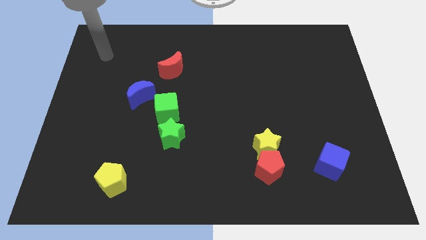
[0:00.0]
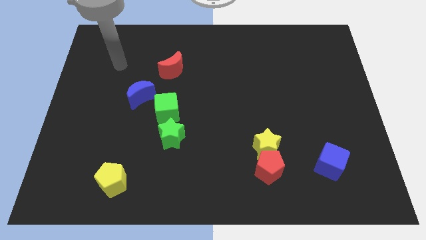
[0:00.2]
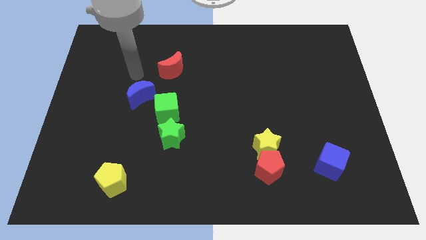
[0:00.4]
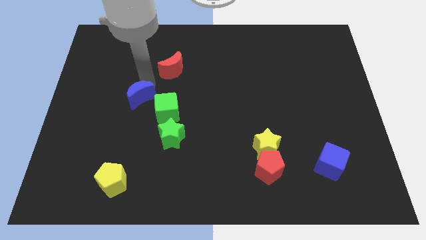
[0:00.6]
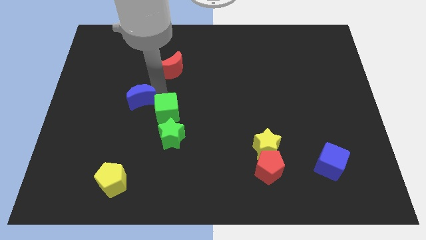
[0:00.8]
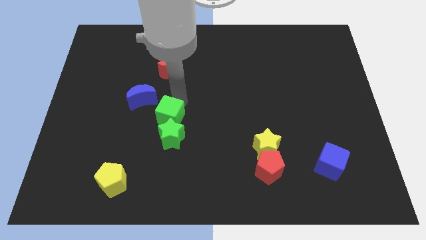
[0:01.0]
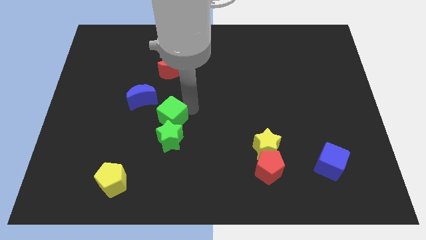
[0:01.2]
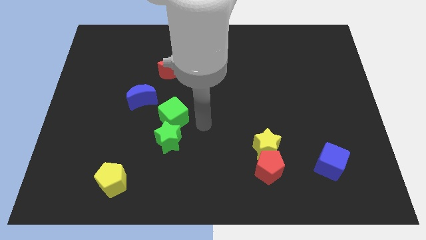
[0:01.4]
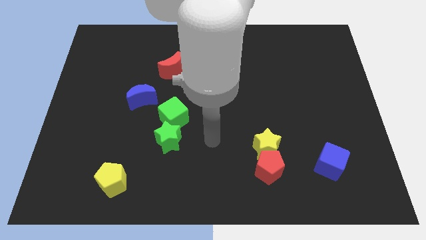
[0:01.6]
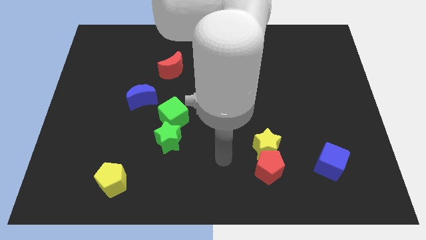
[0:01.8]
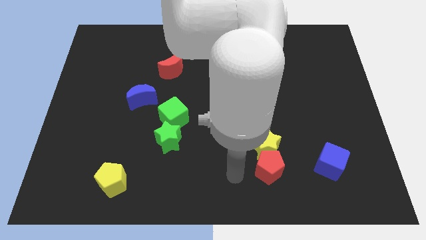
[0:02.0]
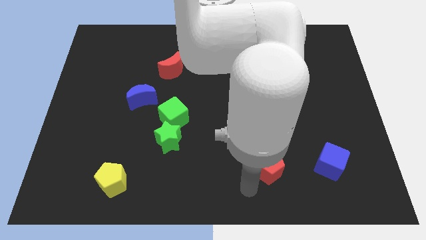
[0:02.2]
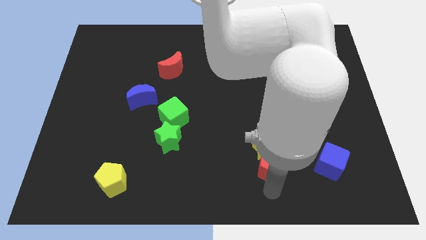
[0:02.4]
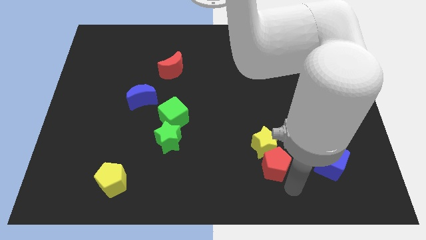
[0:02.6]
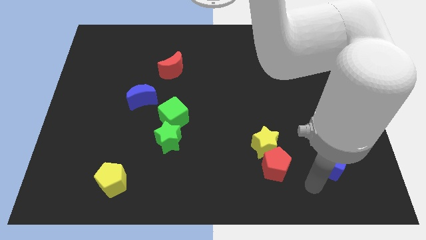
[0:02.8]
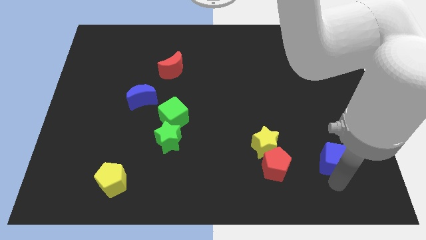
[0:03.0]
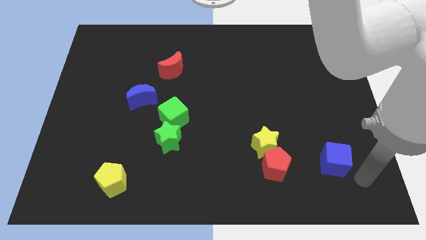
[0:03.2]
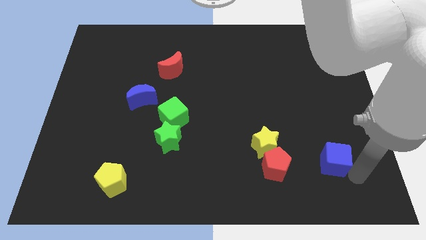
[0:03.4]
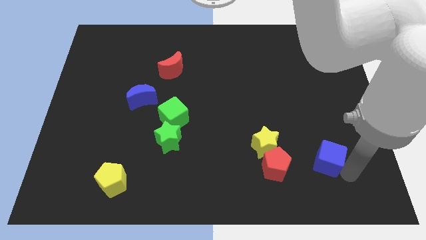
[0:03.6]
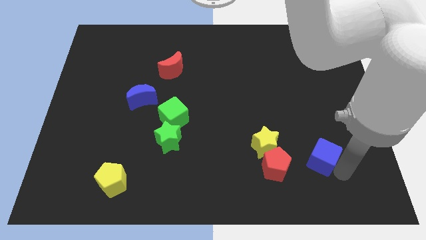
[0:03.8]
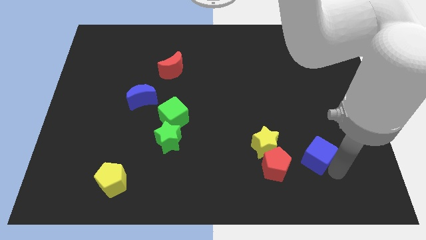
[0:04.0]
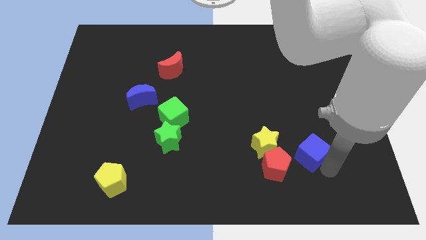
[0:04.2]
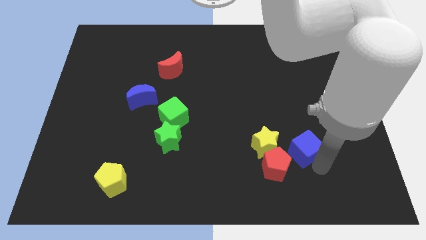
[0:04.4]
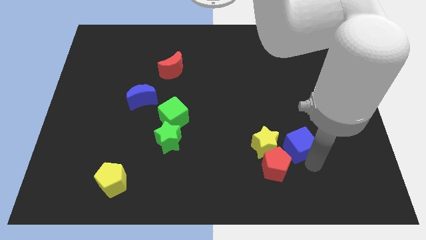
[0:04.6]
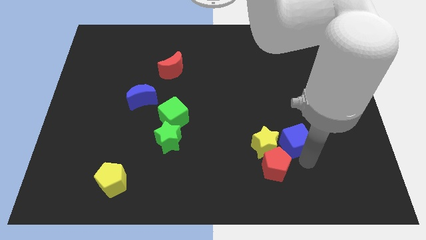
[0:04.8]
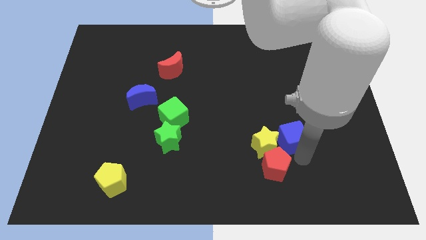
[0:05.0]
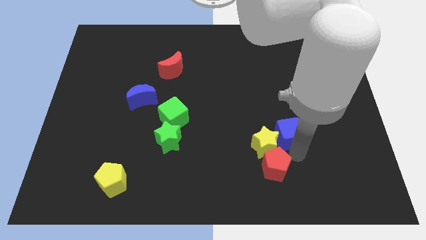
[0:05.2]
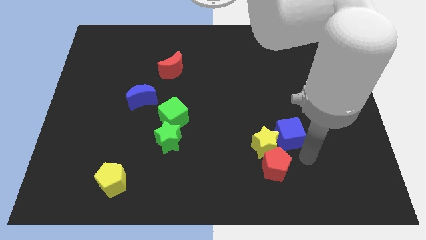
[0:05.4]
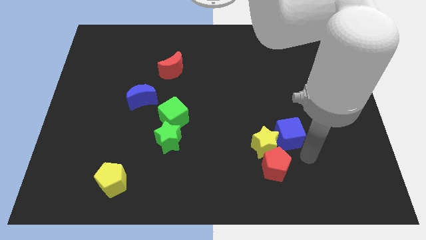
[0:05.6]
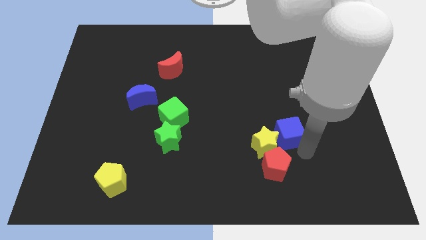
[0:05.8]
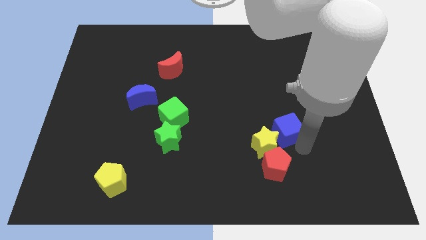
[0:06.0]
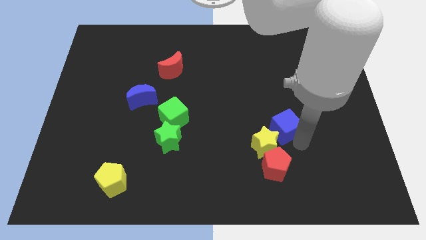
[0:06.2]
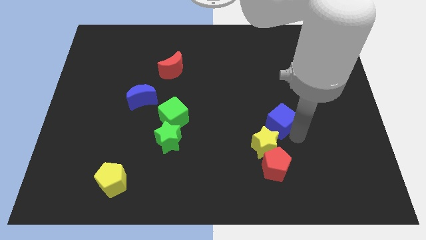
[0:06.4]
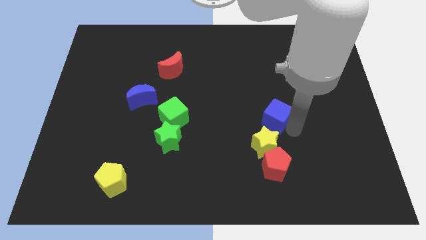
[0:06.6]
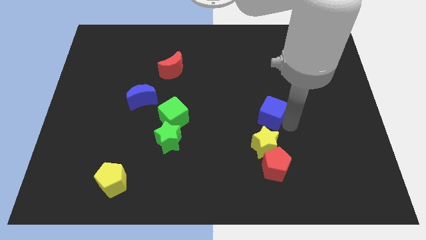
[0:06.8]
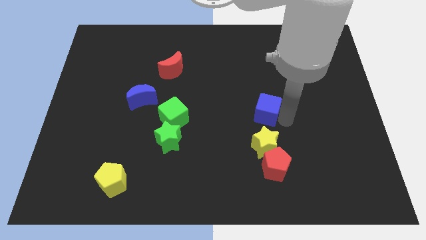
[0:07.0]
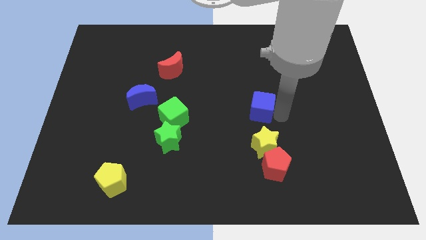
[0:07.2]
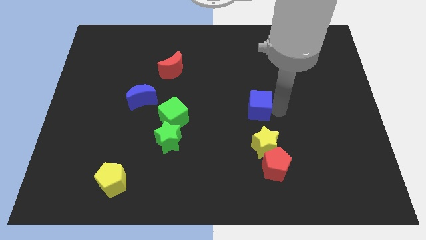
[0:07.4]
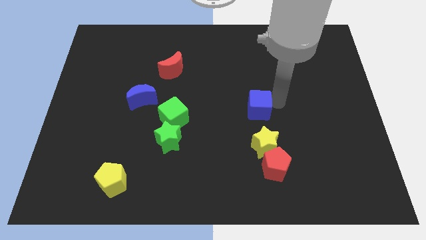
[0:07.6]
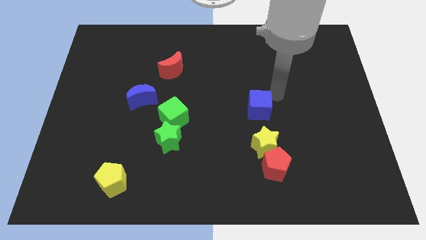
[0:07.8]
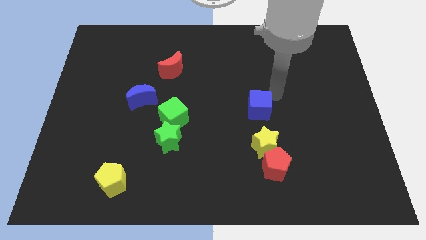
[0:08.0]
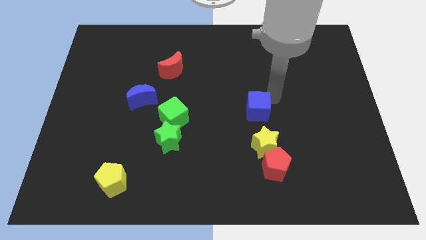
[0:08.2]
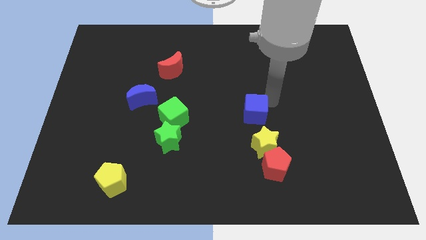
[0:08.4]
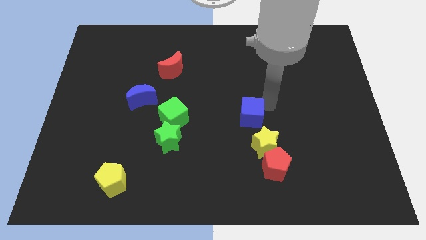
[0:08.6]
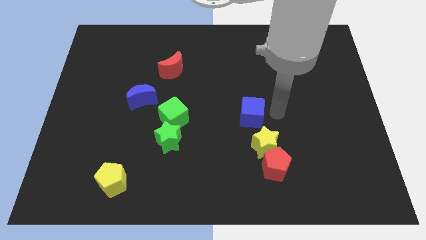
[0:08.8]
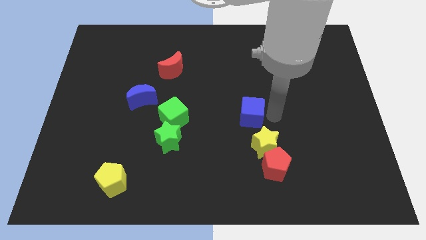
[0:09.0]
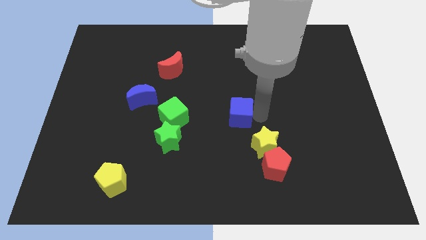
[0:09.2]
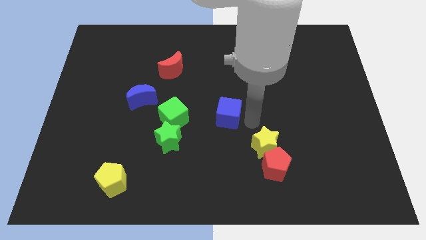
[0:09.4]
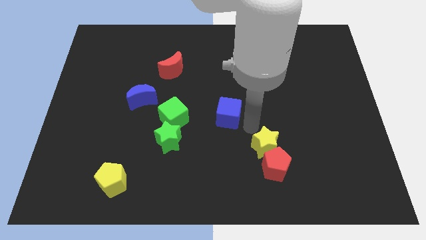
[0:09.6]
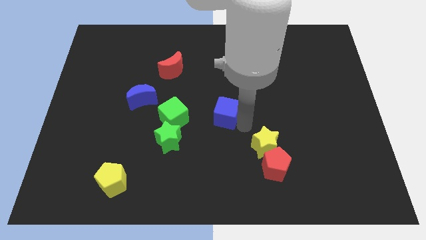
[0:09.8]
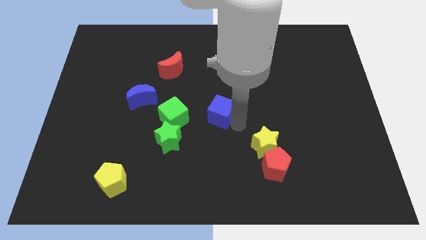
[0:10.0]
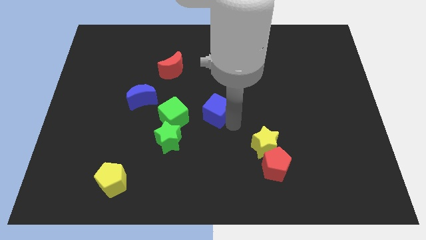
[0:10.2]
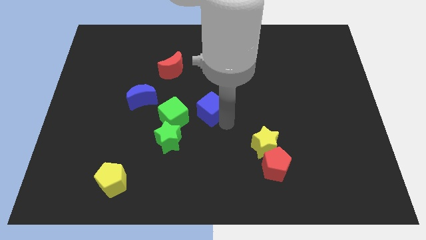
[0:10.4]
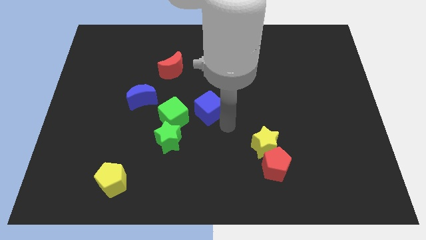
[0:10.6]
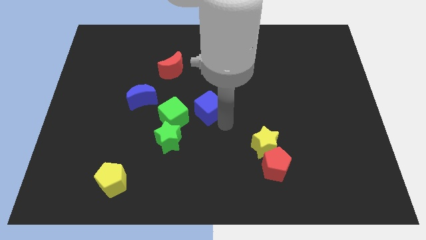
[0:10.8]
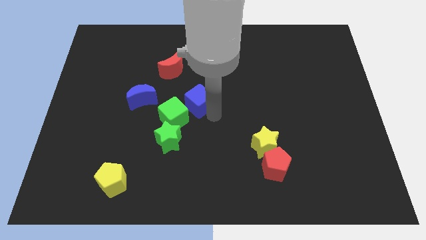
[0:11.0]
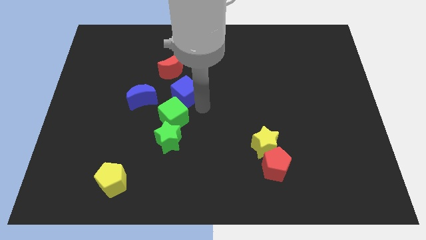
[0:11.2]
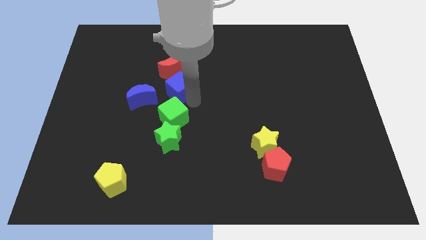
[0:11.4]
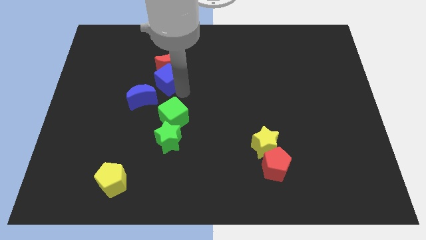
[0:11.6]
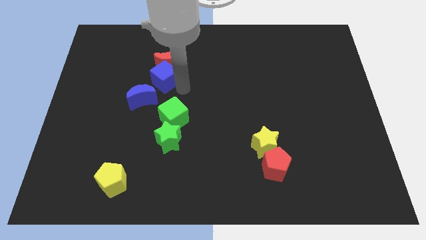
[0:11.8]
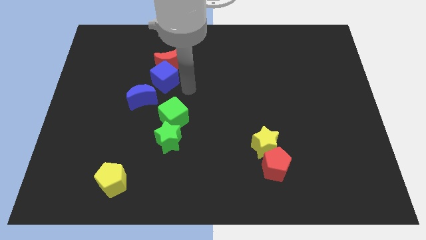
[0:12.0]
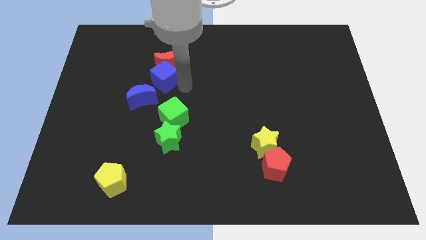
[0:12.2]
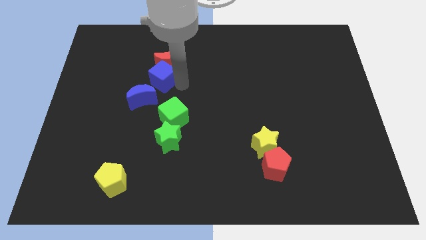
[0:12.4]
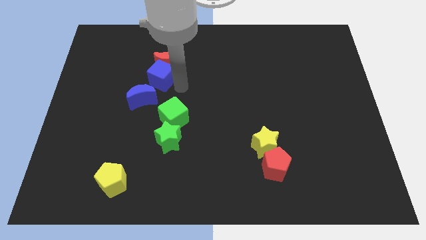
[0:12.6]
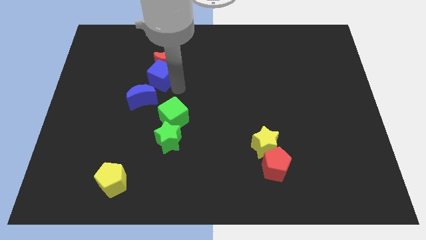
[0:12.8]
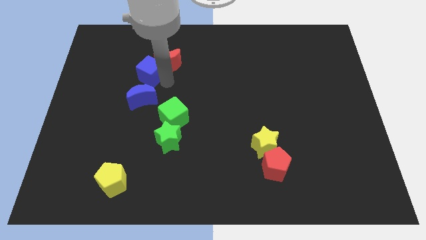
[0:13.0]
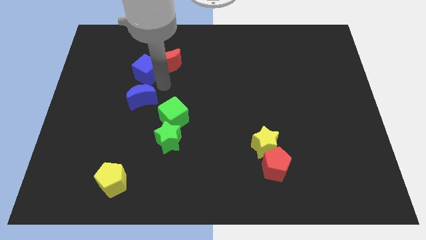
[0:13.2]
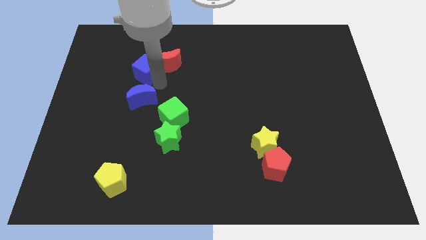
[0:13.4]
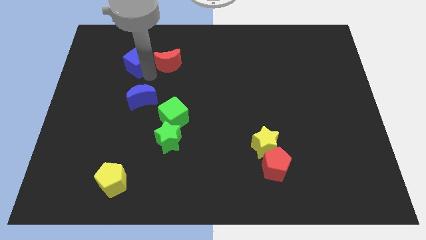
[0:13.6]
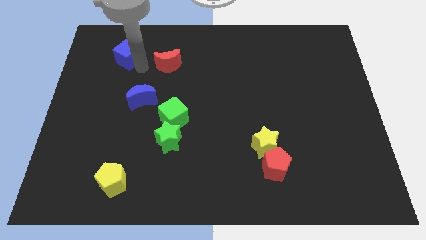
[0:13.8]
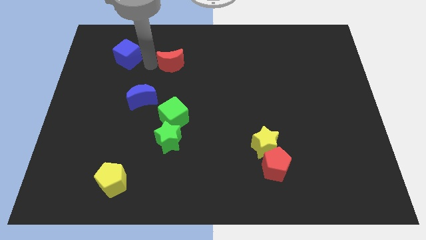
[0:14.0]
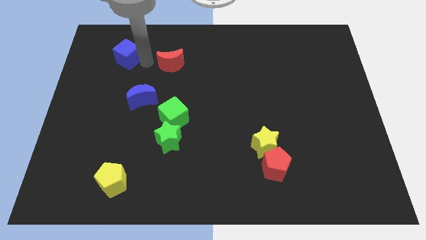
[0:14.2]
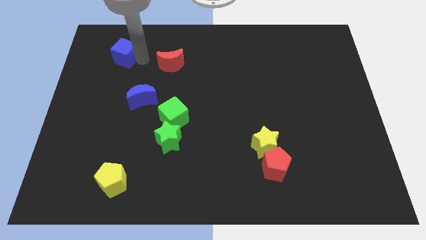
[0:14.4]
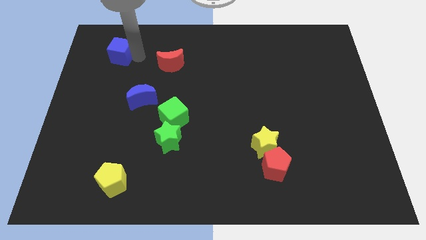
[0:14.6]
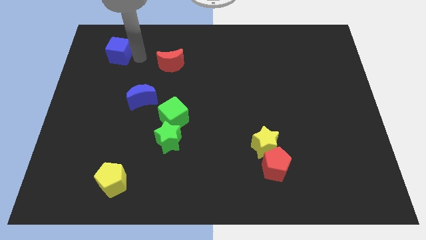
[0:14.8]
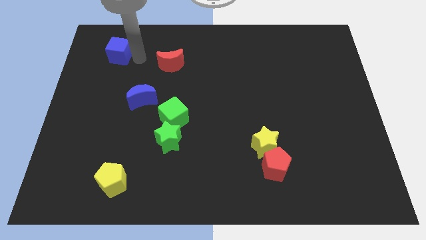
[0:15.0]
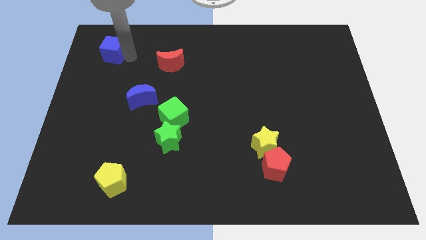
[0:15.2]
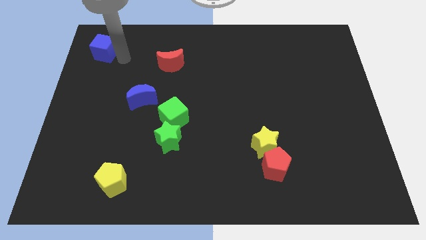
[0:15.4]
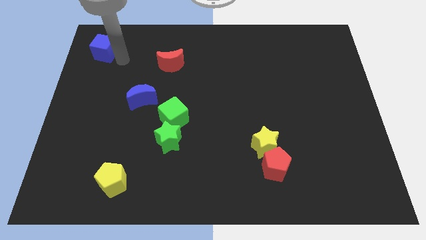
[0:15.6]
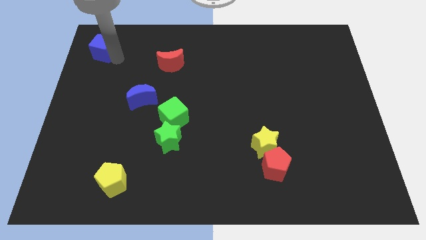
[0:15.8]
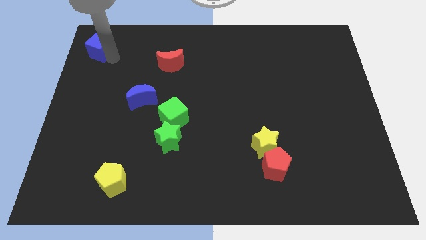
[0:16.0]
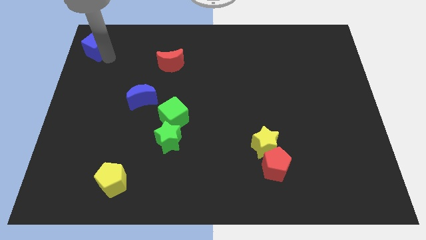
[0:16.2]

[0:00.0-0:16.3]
slide the blue cube to the upper left corner
